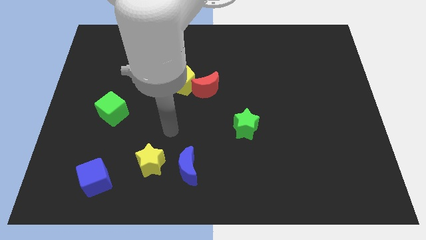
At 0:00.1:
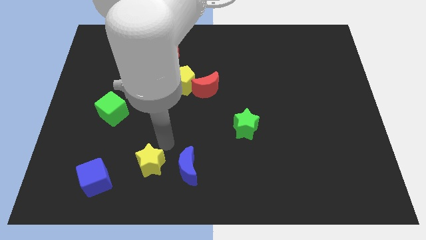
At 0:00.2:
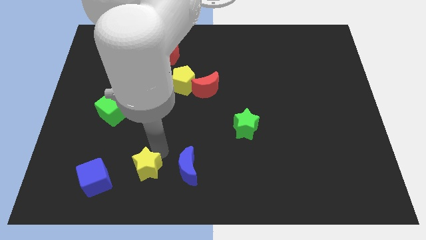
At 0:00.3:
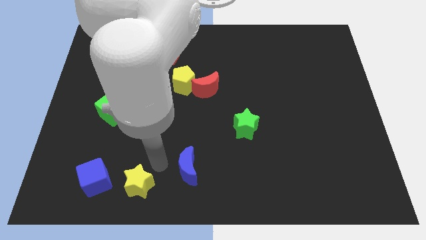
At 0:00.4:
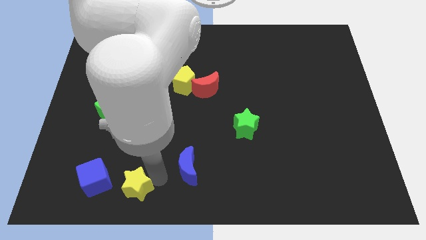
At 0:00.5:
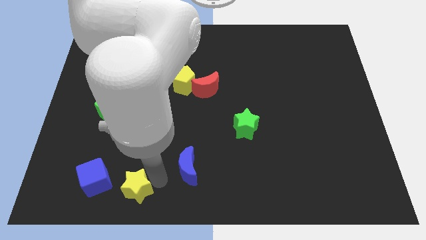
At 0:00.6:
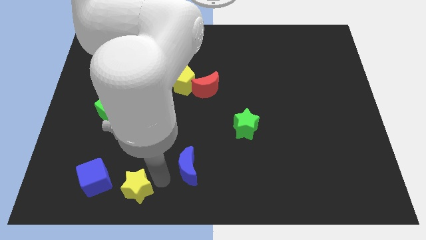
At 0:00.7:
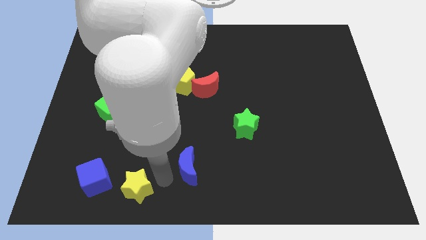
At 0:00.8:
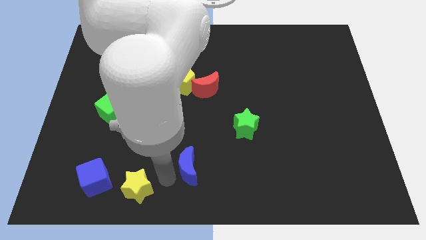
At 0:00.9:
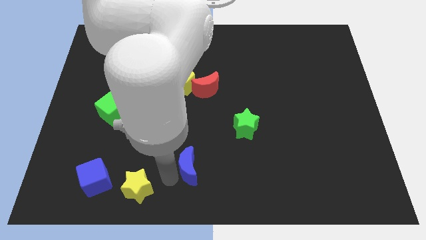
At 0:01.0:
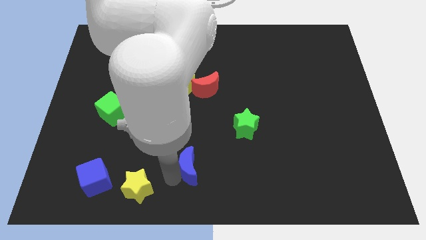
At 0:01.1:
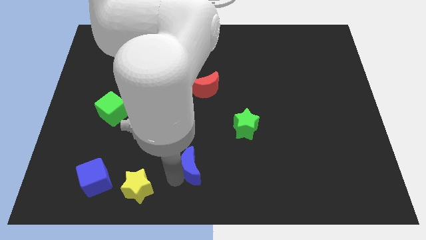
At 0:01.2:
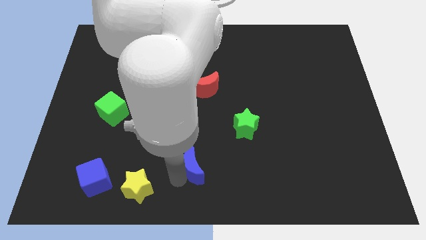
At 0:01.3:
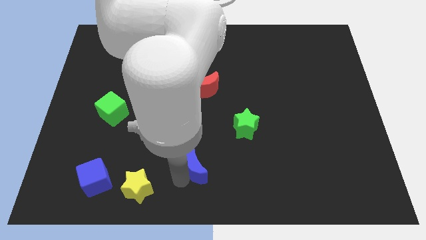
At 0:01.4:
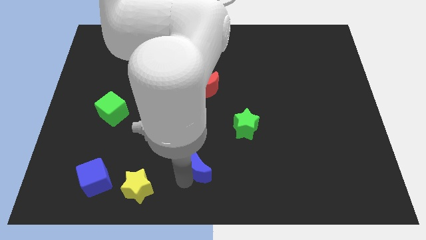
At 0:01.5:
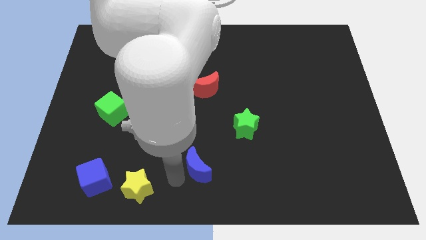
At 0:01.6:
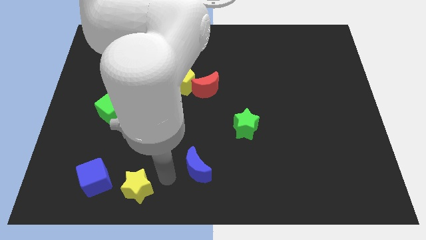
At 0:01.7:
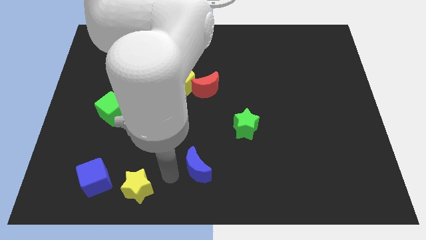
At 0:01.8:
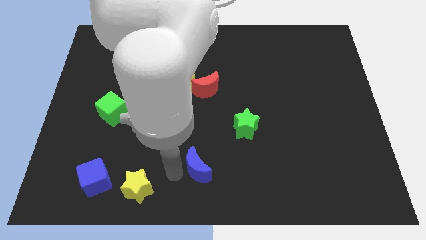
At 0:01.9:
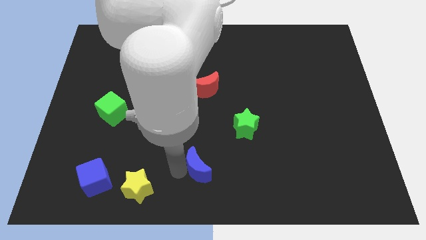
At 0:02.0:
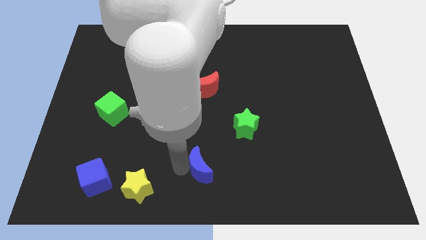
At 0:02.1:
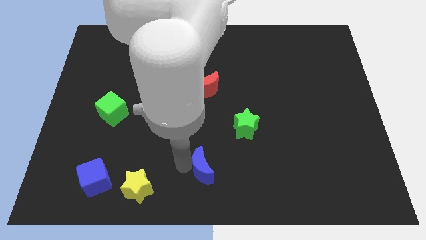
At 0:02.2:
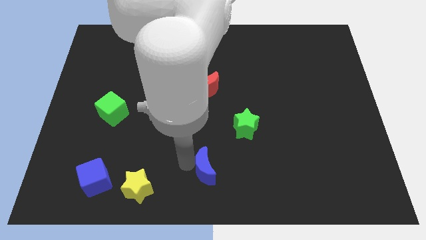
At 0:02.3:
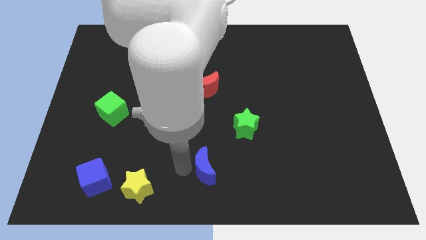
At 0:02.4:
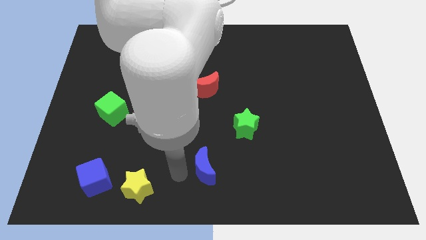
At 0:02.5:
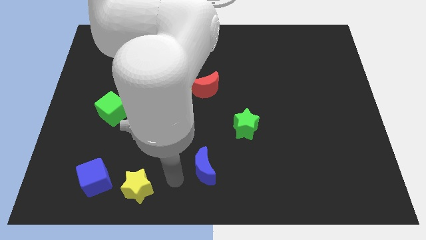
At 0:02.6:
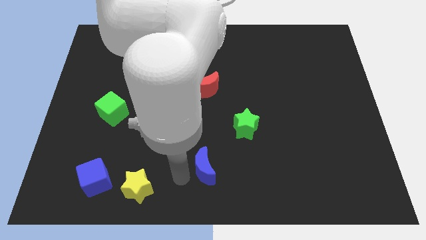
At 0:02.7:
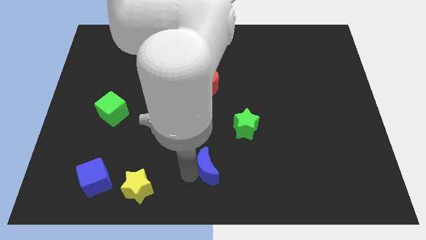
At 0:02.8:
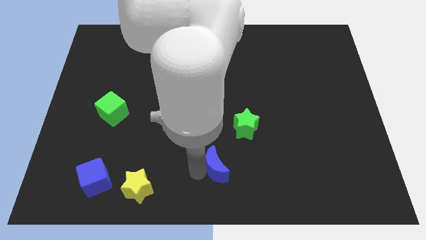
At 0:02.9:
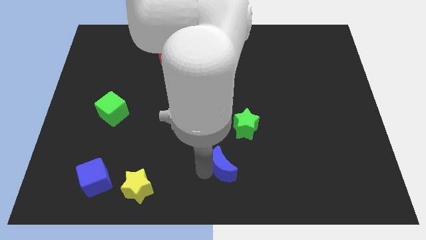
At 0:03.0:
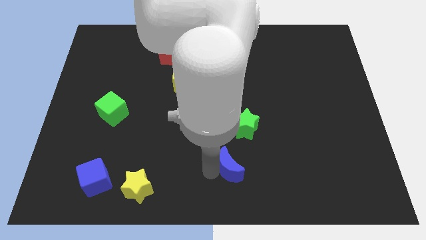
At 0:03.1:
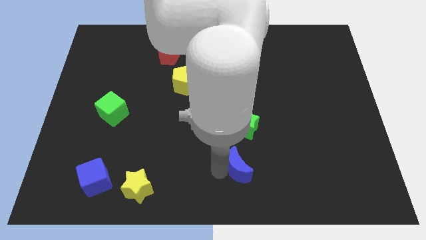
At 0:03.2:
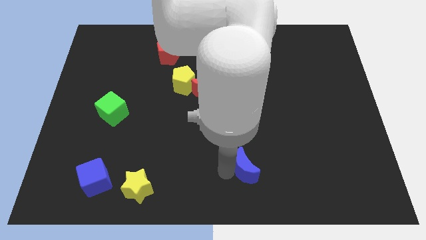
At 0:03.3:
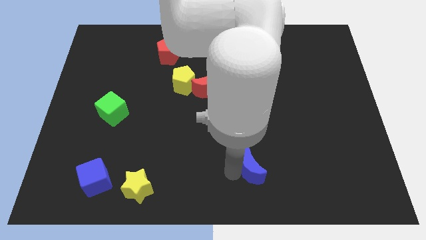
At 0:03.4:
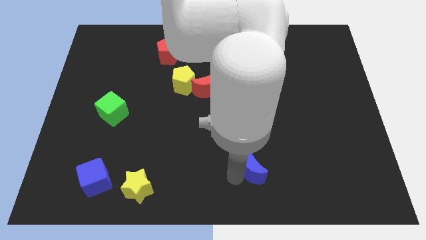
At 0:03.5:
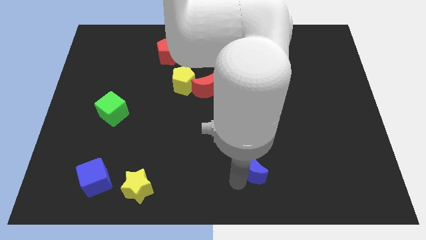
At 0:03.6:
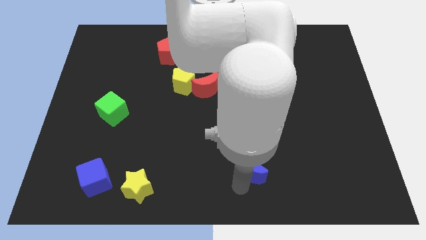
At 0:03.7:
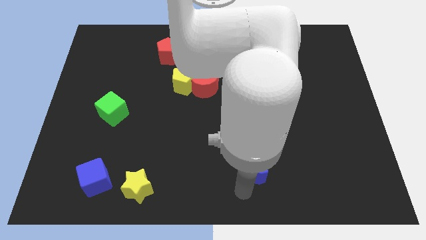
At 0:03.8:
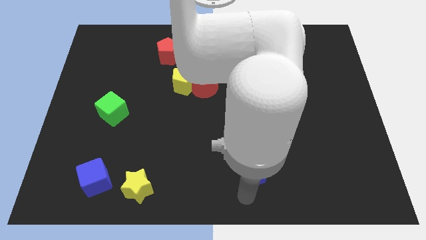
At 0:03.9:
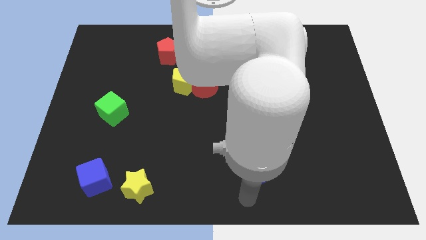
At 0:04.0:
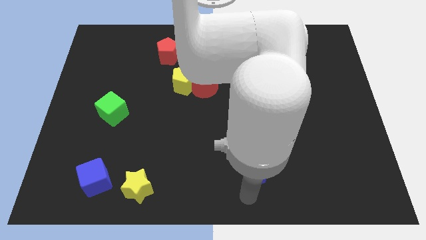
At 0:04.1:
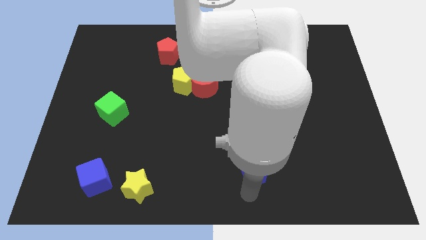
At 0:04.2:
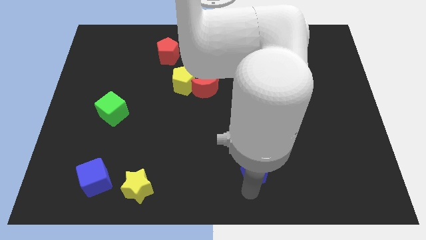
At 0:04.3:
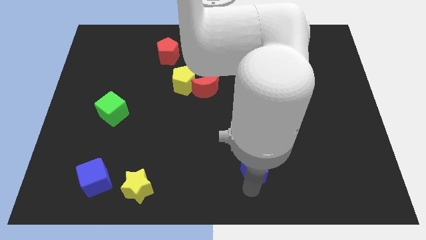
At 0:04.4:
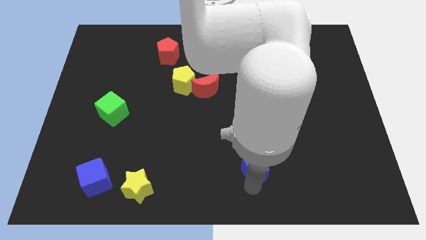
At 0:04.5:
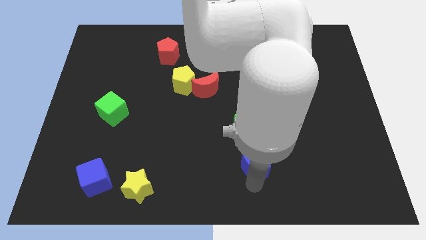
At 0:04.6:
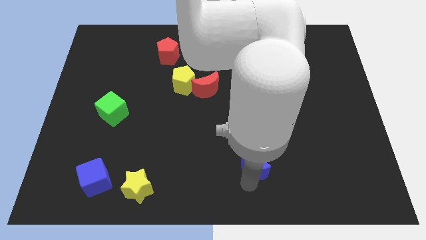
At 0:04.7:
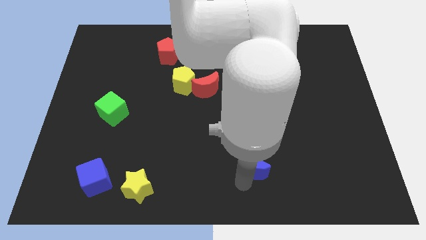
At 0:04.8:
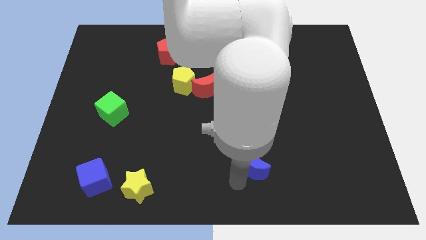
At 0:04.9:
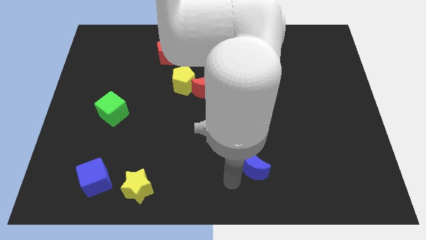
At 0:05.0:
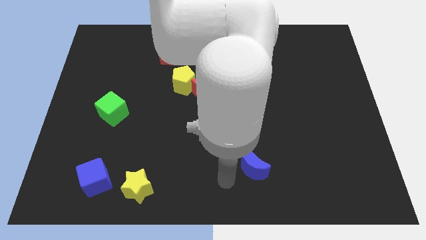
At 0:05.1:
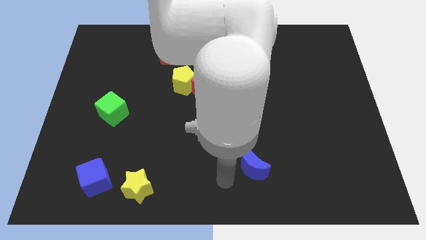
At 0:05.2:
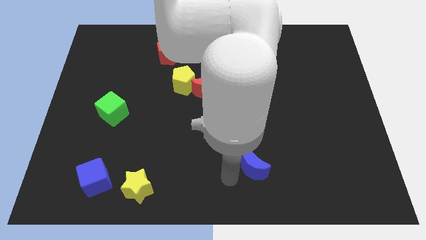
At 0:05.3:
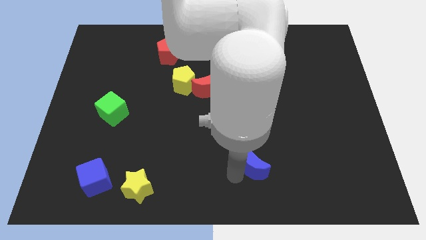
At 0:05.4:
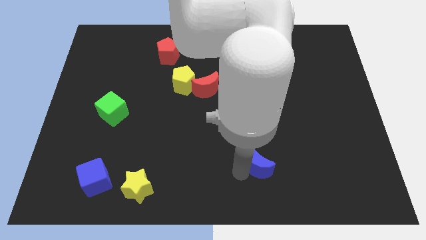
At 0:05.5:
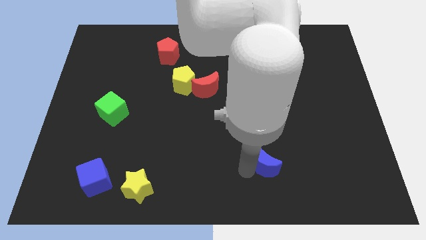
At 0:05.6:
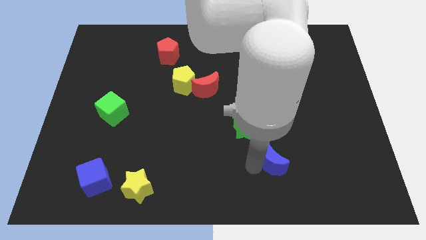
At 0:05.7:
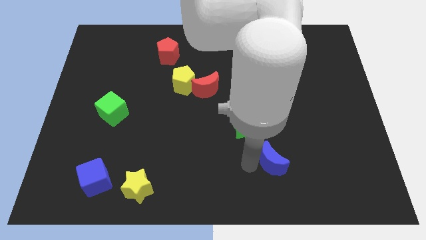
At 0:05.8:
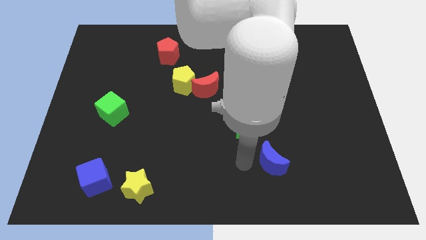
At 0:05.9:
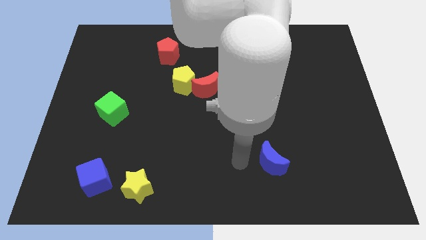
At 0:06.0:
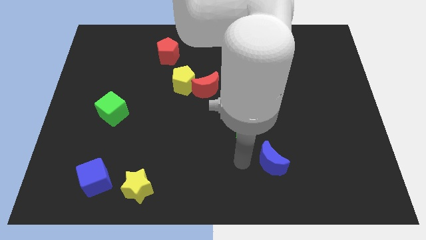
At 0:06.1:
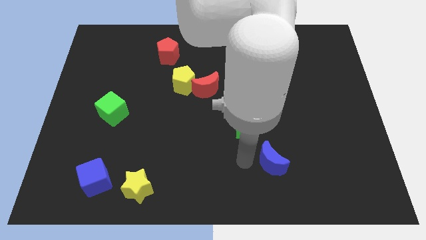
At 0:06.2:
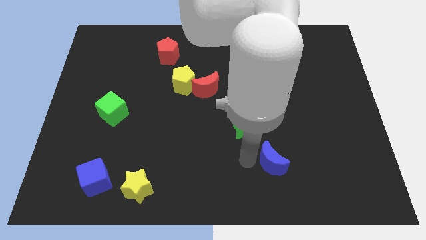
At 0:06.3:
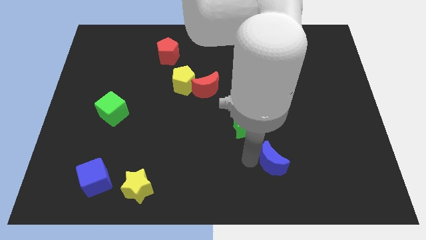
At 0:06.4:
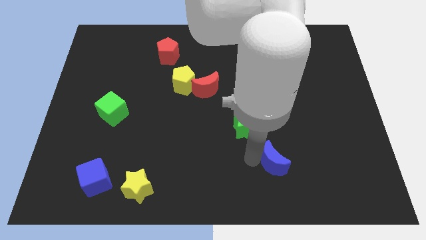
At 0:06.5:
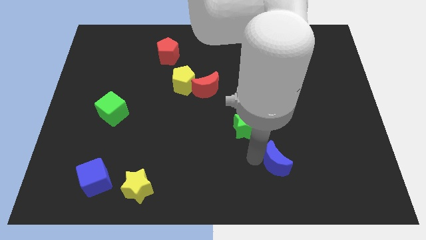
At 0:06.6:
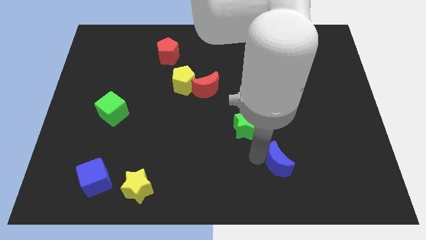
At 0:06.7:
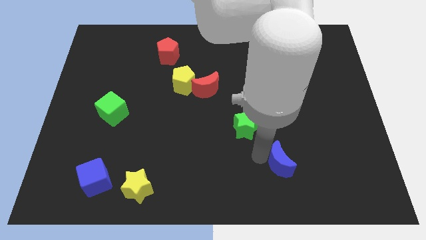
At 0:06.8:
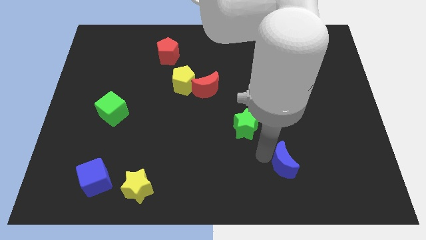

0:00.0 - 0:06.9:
push the blue moon to the right

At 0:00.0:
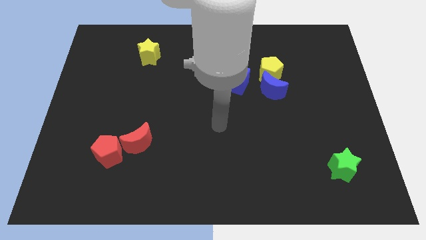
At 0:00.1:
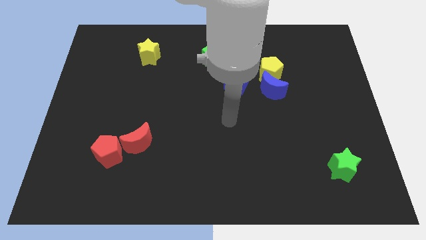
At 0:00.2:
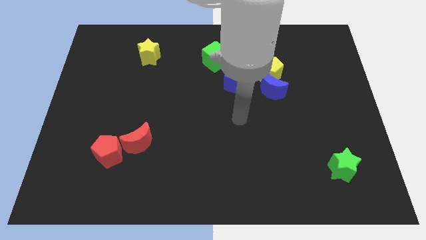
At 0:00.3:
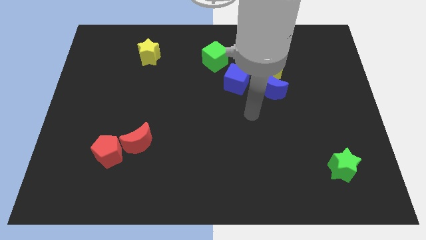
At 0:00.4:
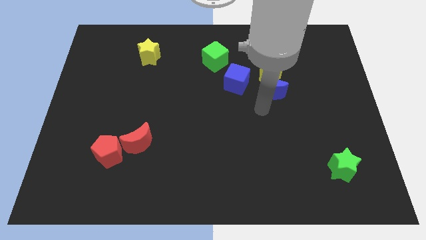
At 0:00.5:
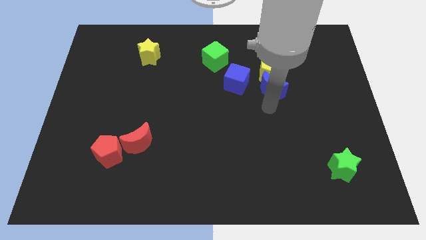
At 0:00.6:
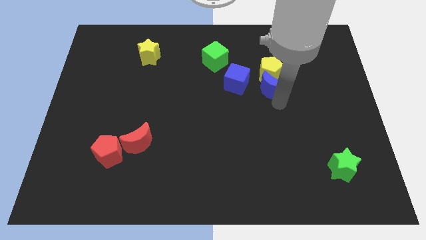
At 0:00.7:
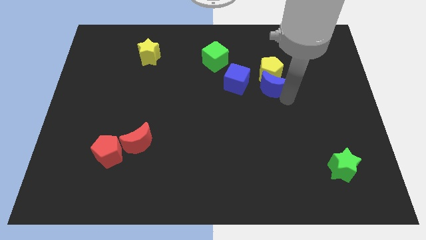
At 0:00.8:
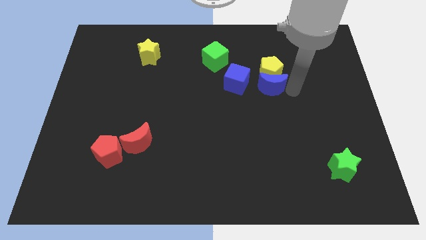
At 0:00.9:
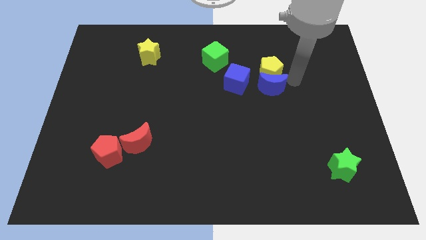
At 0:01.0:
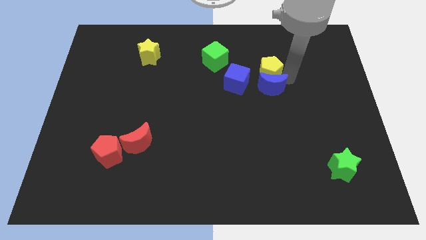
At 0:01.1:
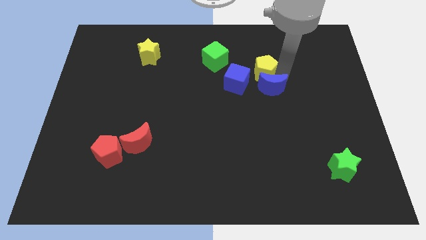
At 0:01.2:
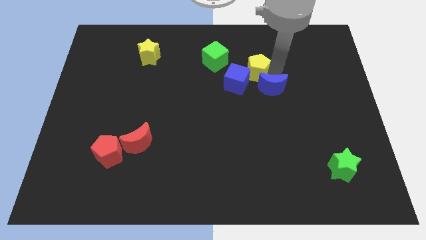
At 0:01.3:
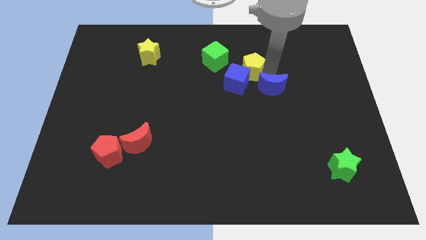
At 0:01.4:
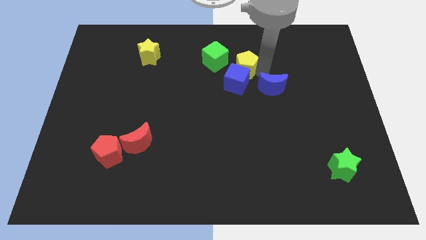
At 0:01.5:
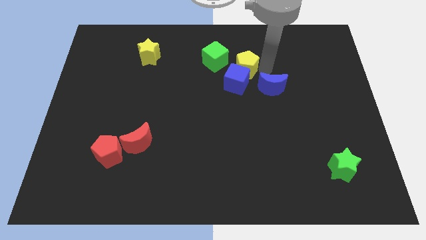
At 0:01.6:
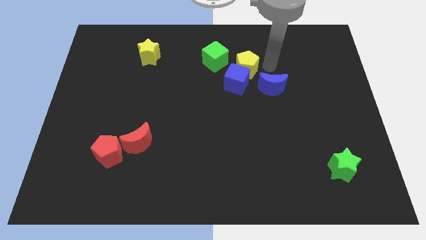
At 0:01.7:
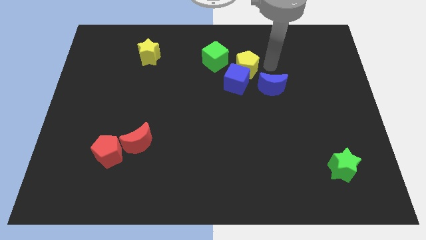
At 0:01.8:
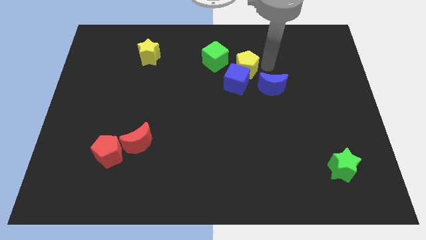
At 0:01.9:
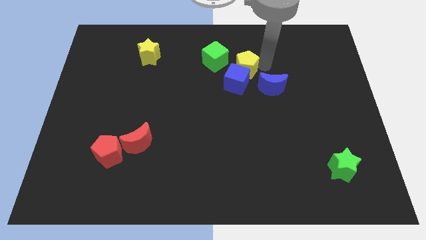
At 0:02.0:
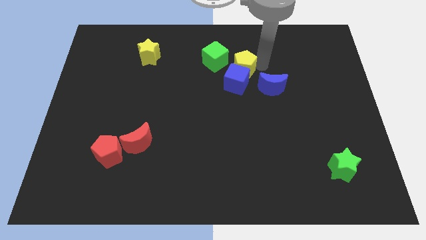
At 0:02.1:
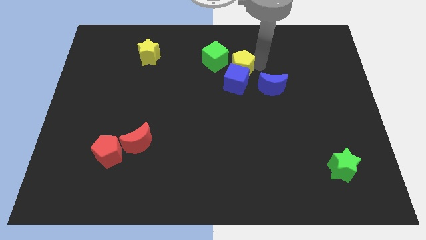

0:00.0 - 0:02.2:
slide the yellow pentagon a little to the left
